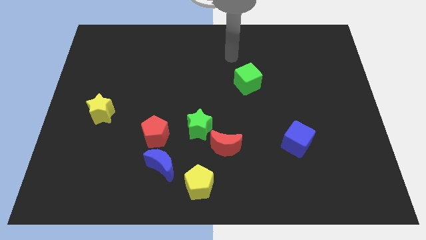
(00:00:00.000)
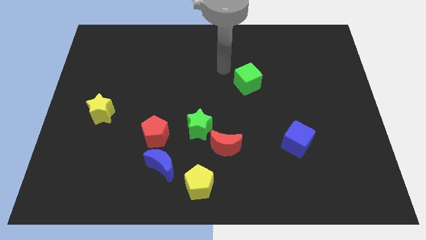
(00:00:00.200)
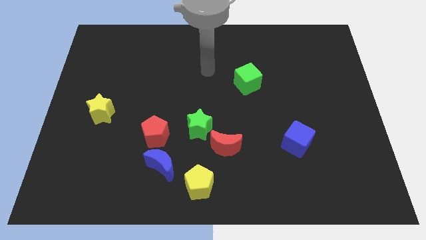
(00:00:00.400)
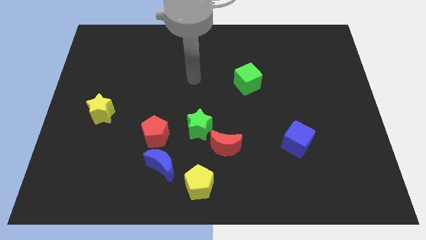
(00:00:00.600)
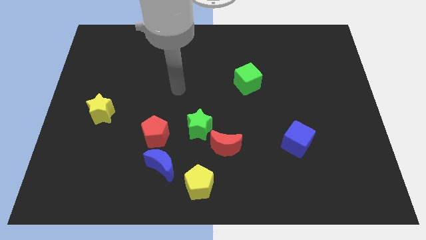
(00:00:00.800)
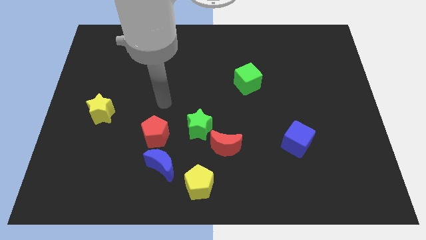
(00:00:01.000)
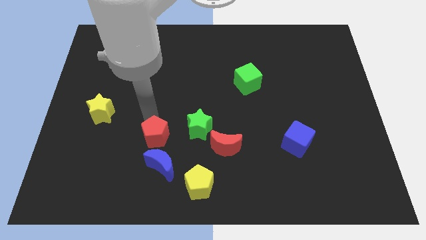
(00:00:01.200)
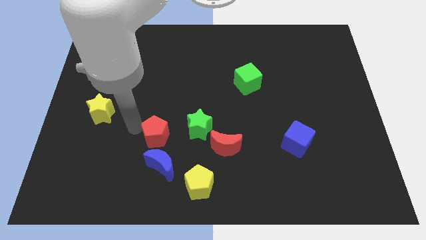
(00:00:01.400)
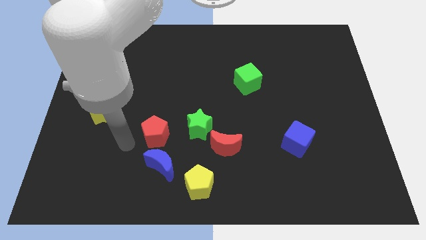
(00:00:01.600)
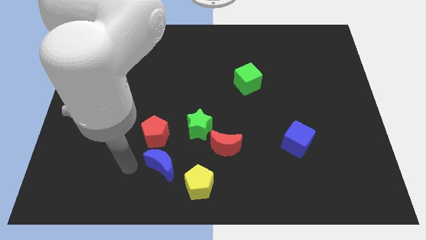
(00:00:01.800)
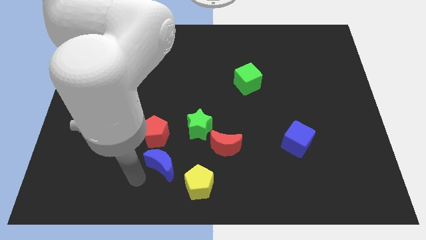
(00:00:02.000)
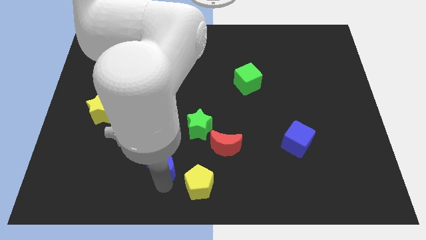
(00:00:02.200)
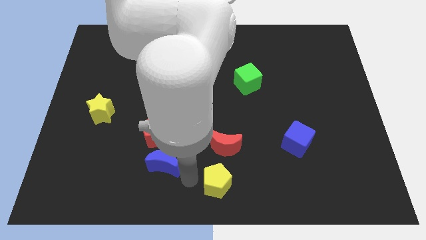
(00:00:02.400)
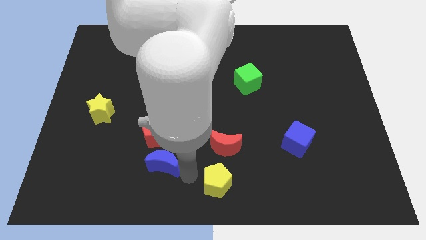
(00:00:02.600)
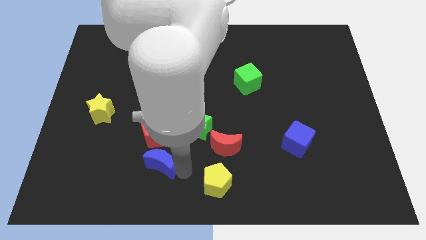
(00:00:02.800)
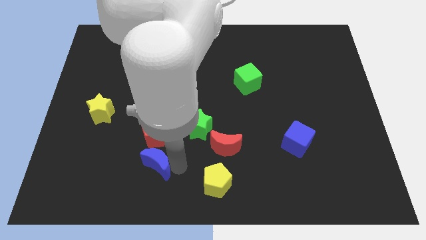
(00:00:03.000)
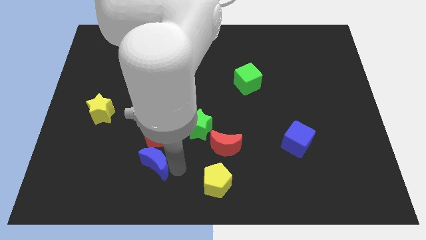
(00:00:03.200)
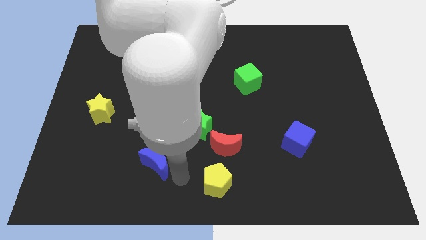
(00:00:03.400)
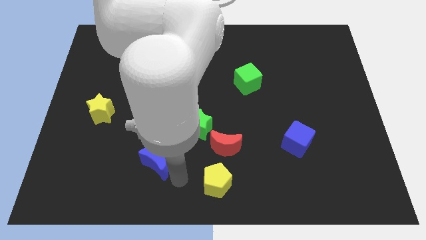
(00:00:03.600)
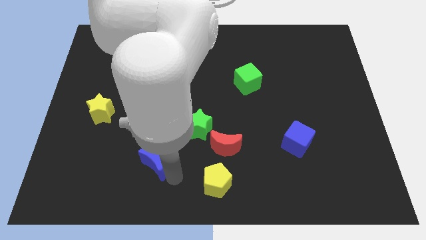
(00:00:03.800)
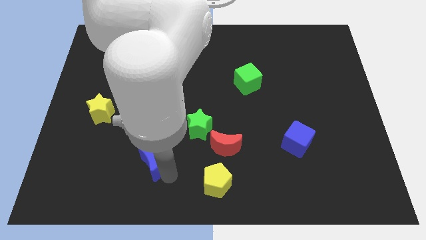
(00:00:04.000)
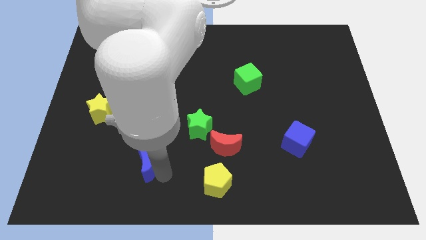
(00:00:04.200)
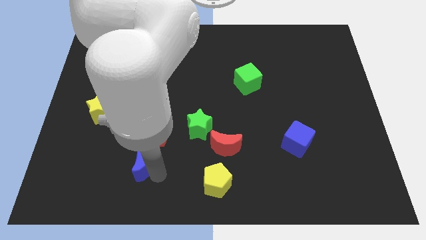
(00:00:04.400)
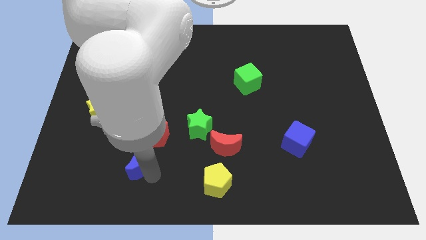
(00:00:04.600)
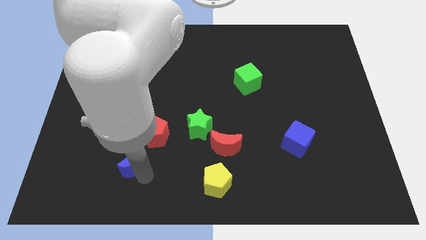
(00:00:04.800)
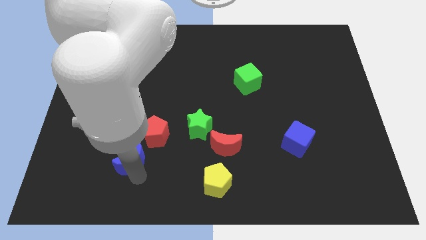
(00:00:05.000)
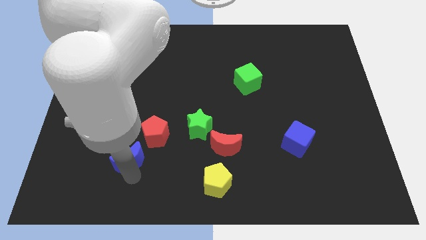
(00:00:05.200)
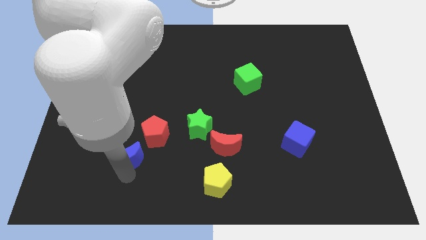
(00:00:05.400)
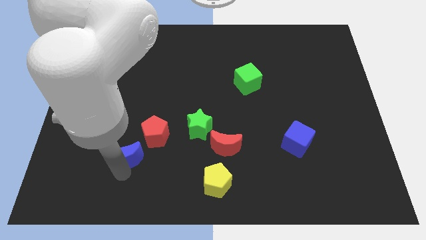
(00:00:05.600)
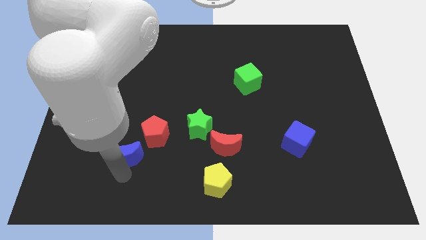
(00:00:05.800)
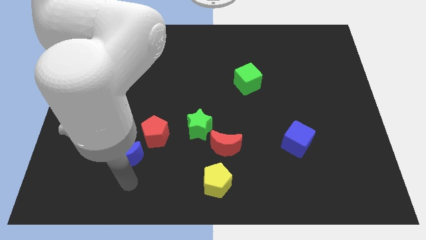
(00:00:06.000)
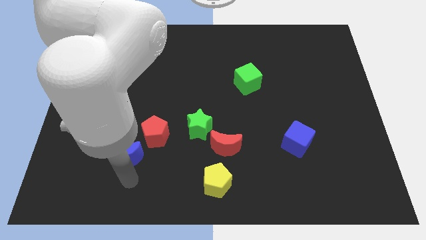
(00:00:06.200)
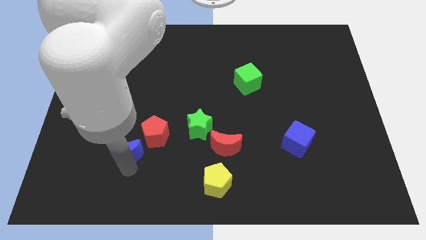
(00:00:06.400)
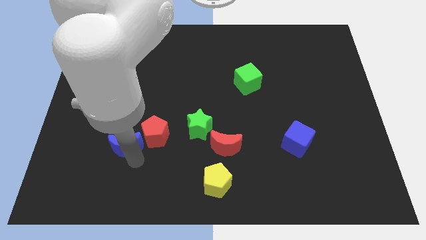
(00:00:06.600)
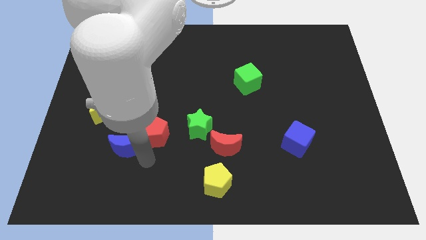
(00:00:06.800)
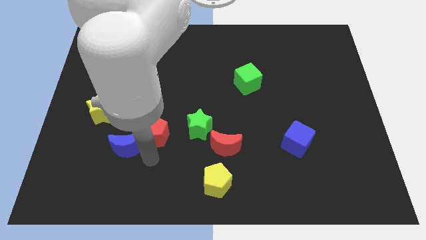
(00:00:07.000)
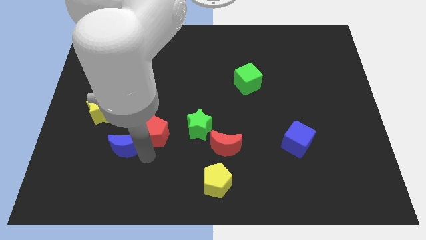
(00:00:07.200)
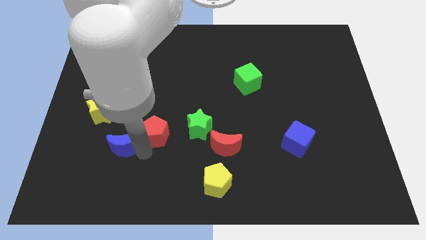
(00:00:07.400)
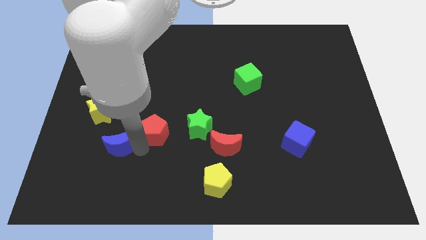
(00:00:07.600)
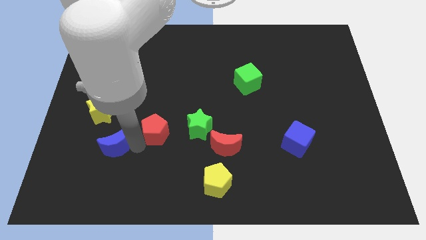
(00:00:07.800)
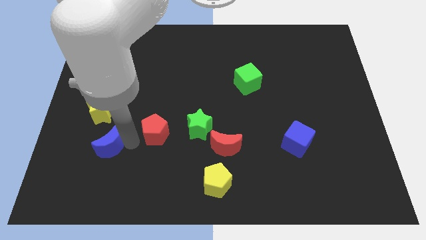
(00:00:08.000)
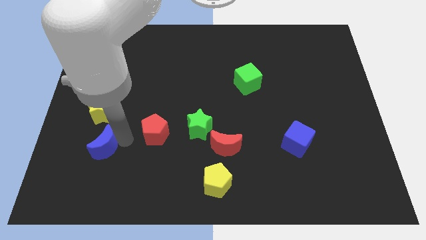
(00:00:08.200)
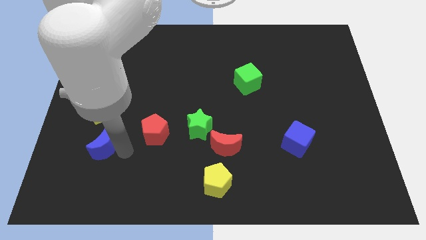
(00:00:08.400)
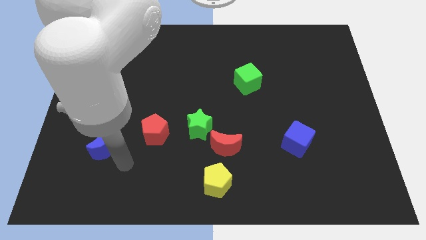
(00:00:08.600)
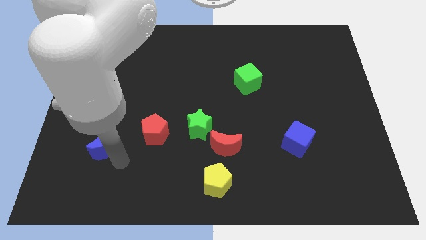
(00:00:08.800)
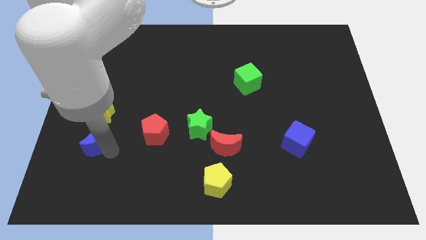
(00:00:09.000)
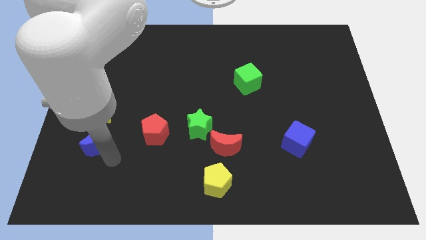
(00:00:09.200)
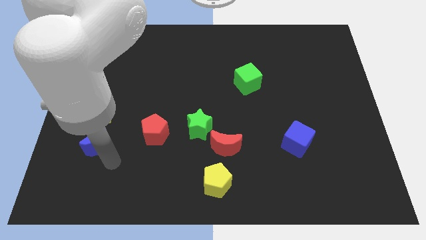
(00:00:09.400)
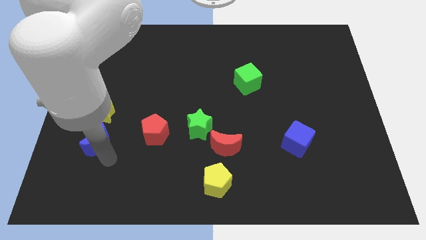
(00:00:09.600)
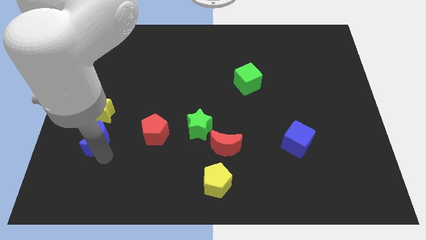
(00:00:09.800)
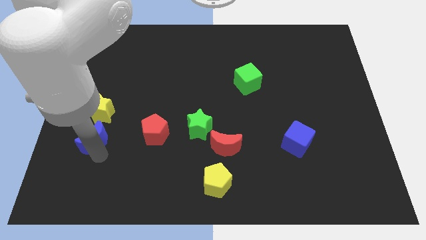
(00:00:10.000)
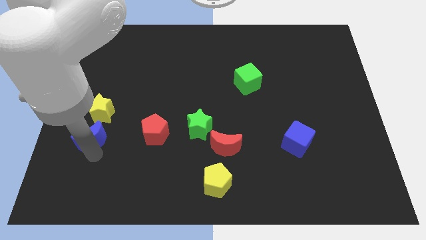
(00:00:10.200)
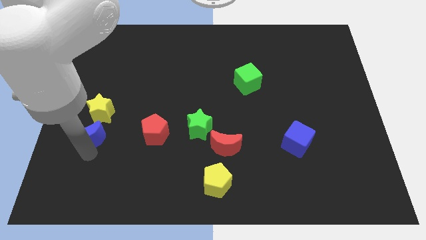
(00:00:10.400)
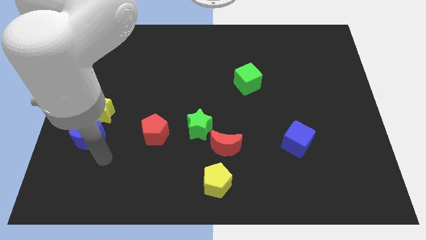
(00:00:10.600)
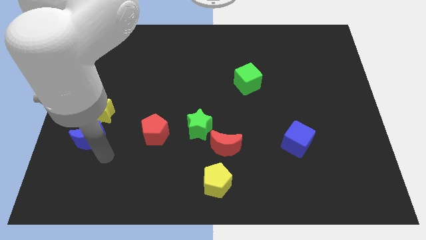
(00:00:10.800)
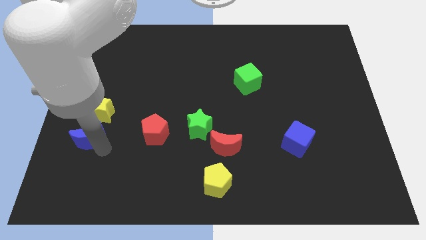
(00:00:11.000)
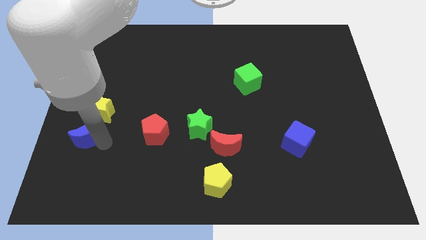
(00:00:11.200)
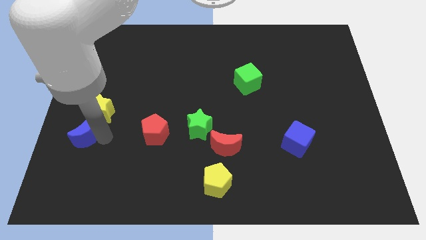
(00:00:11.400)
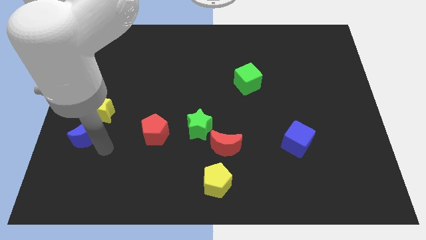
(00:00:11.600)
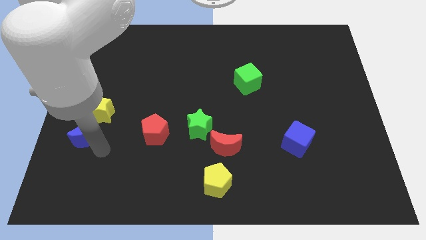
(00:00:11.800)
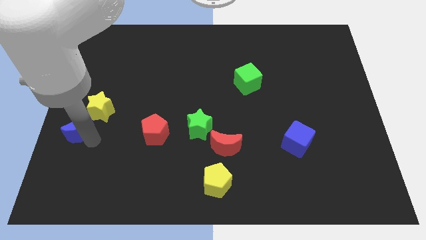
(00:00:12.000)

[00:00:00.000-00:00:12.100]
push the blue moon to the left side of the board

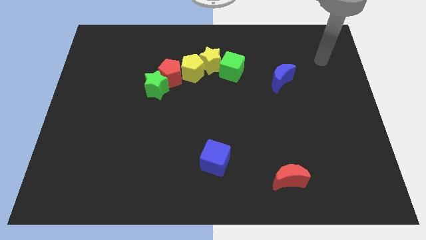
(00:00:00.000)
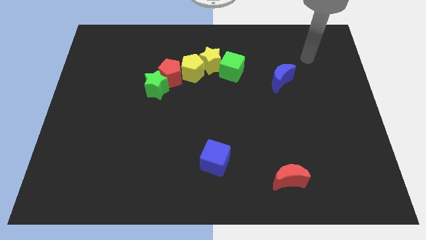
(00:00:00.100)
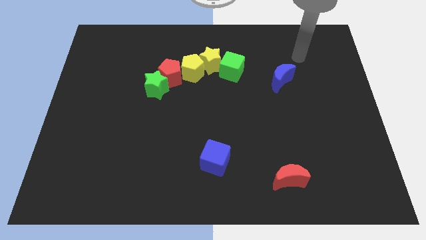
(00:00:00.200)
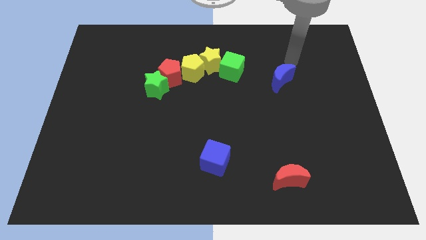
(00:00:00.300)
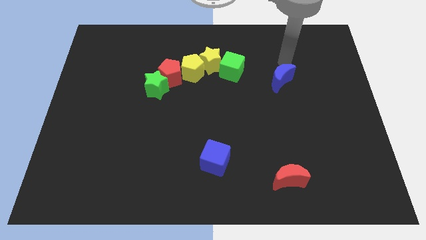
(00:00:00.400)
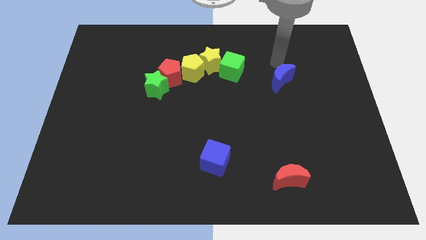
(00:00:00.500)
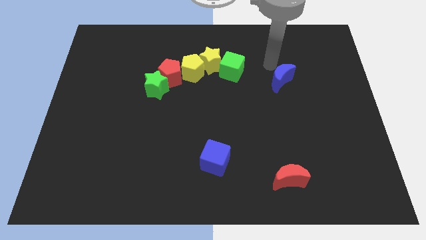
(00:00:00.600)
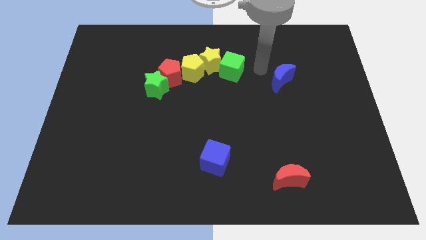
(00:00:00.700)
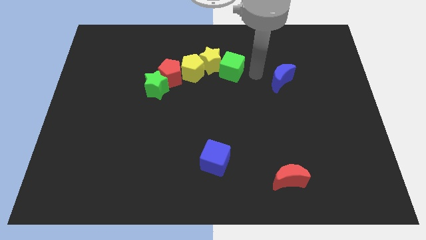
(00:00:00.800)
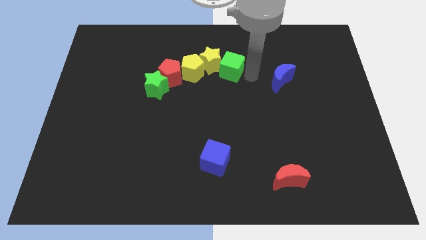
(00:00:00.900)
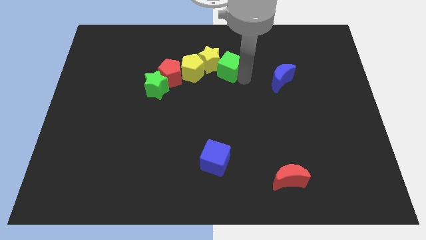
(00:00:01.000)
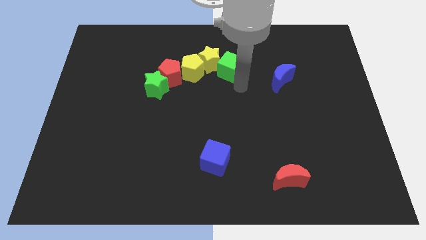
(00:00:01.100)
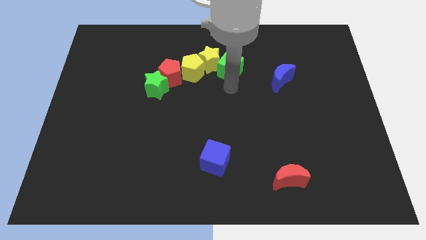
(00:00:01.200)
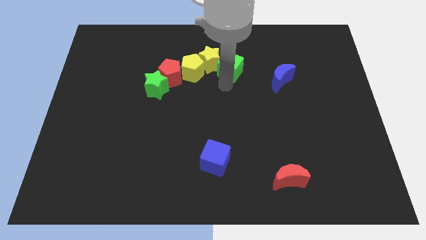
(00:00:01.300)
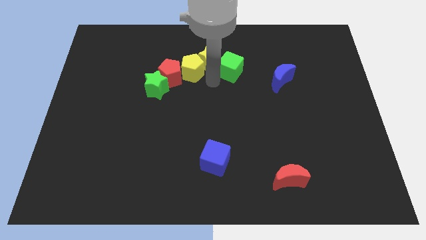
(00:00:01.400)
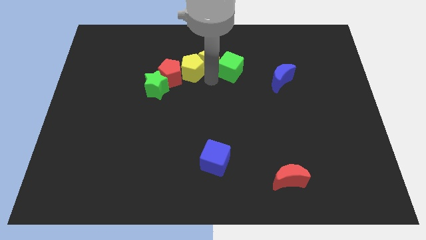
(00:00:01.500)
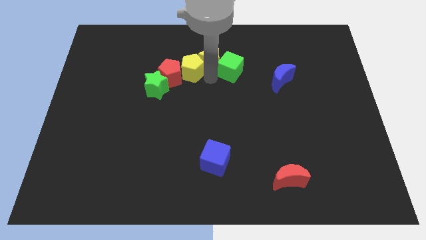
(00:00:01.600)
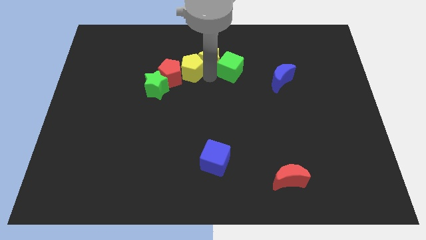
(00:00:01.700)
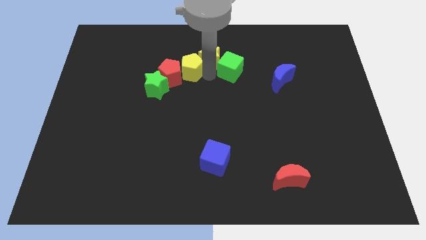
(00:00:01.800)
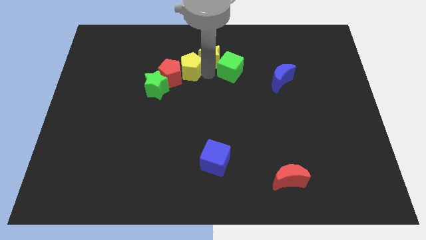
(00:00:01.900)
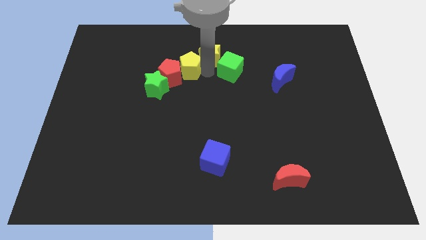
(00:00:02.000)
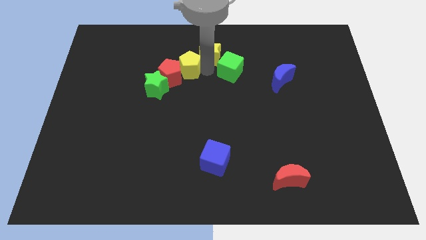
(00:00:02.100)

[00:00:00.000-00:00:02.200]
move the yellow star to the top
